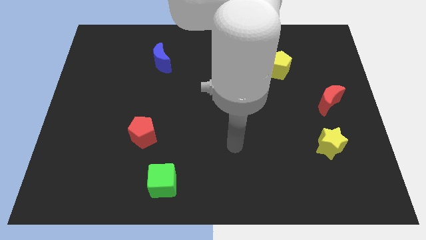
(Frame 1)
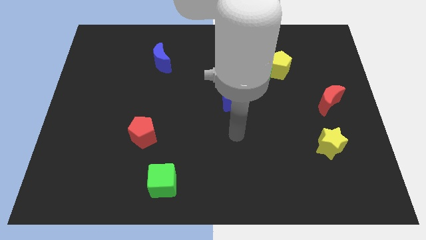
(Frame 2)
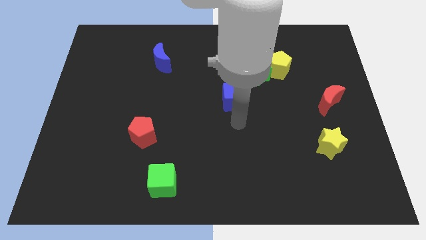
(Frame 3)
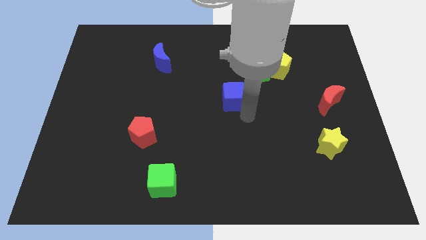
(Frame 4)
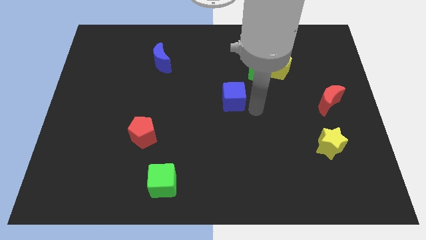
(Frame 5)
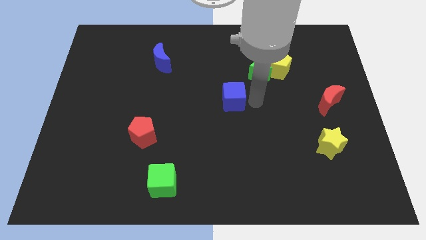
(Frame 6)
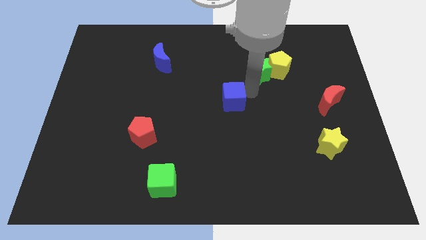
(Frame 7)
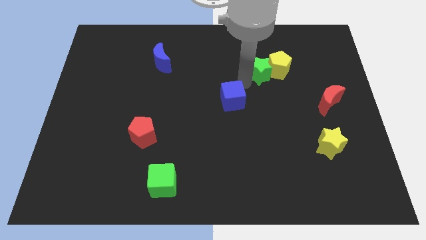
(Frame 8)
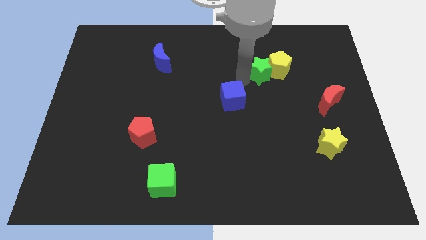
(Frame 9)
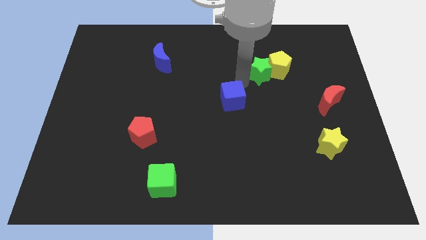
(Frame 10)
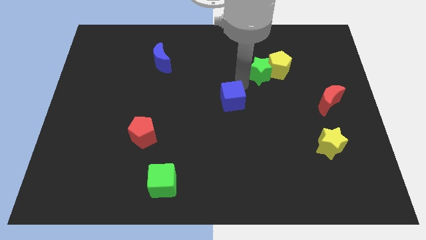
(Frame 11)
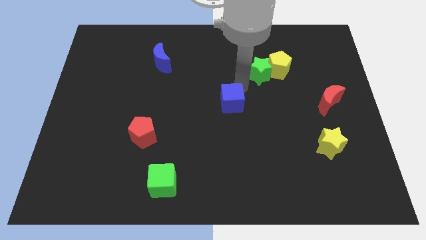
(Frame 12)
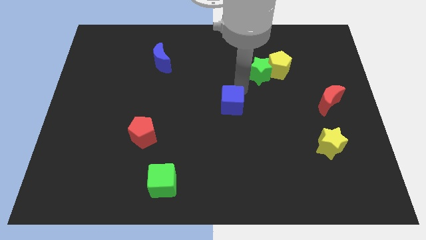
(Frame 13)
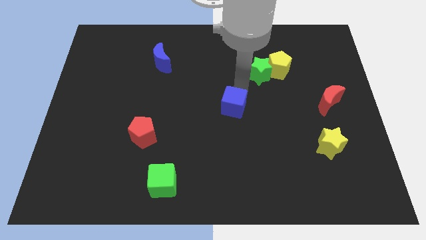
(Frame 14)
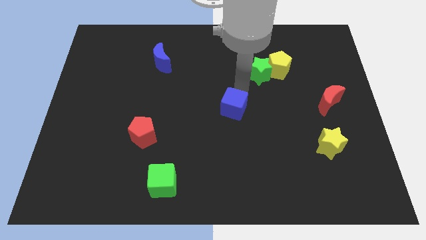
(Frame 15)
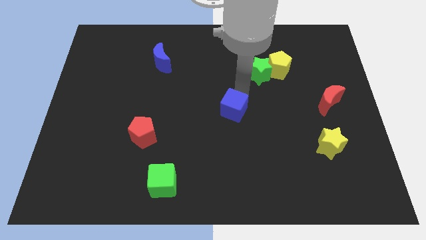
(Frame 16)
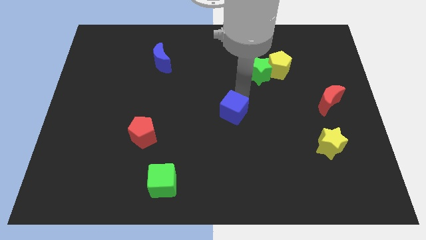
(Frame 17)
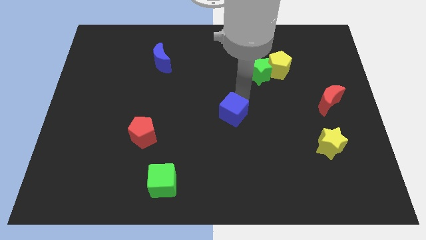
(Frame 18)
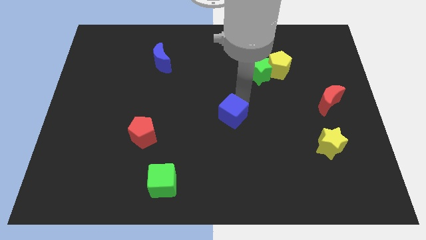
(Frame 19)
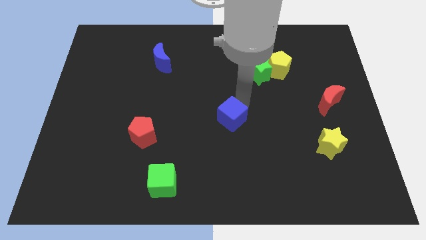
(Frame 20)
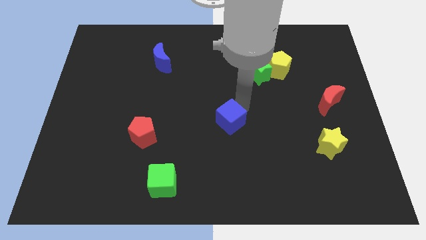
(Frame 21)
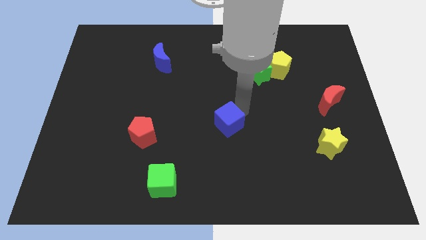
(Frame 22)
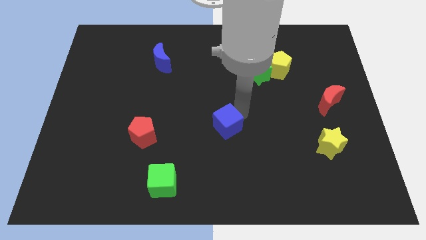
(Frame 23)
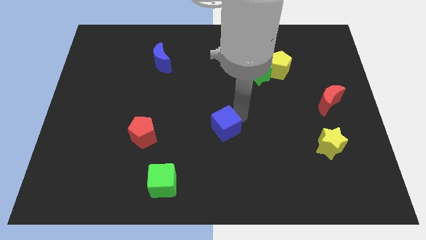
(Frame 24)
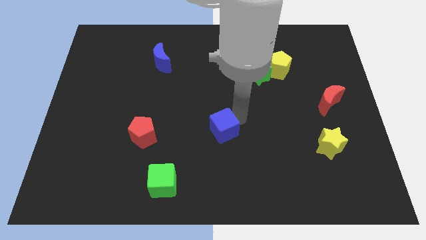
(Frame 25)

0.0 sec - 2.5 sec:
move the blue cube downwards and to the left a little bit

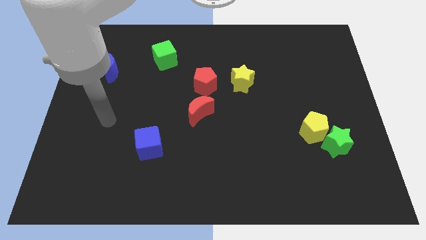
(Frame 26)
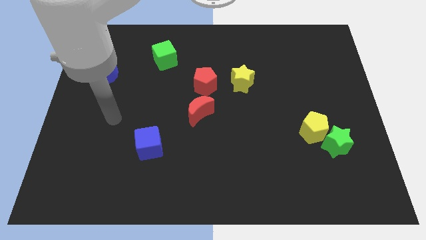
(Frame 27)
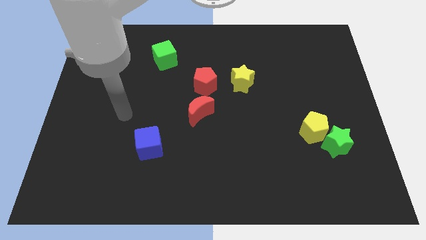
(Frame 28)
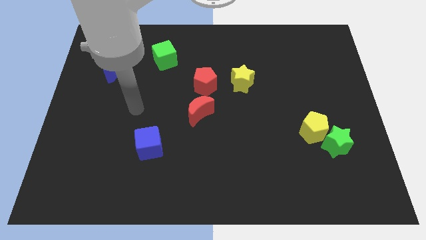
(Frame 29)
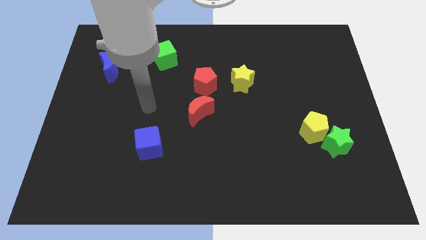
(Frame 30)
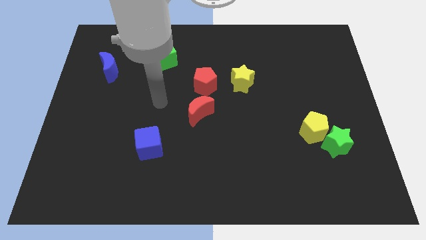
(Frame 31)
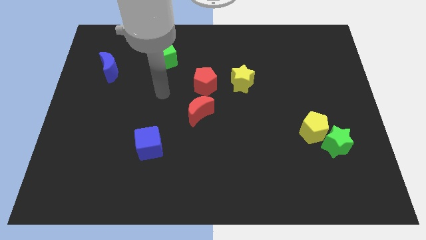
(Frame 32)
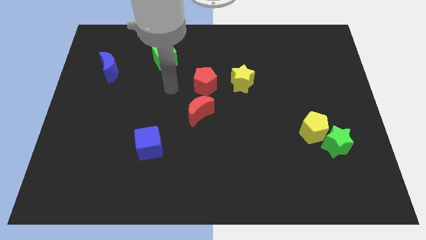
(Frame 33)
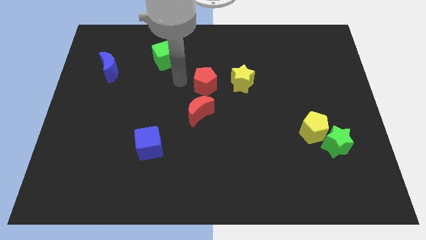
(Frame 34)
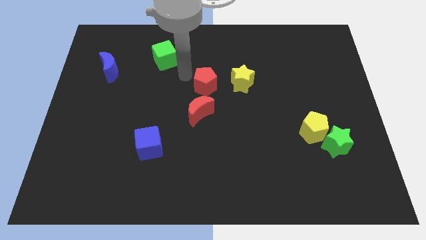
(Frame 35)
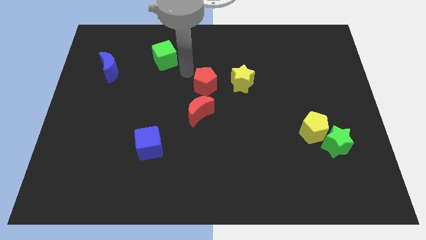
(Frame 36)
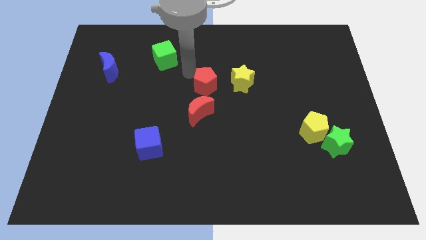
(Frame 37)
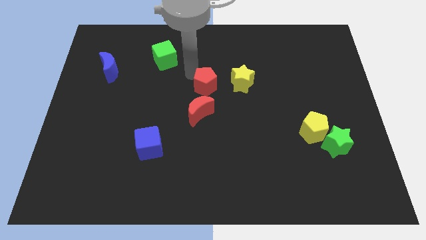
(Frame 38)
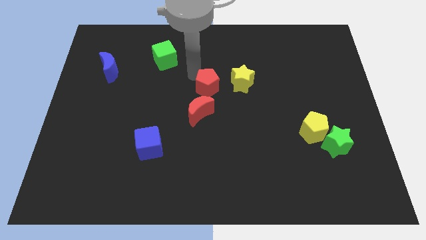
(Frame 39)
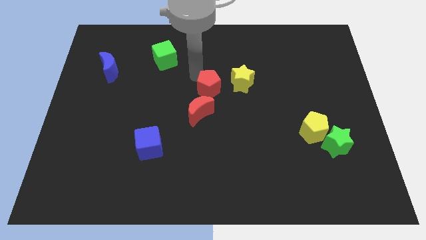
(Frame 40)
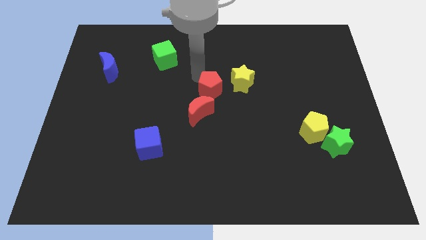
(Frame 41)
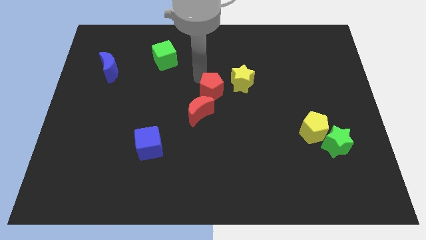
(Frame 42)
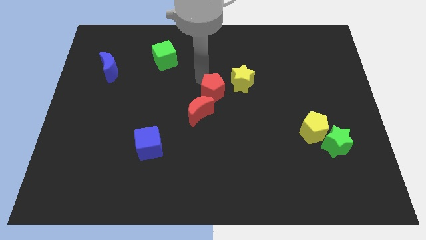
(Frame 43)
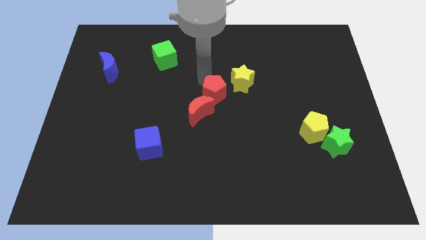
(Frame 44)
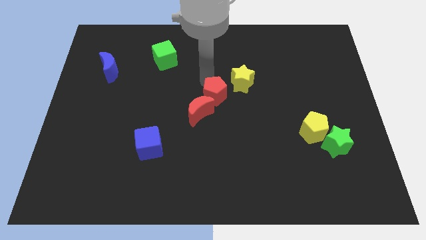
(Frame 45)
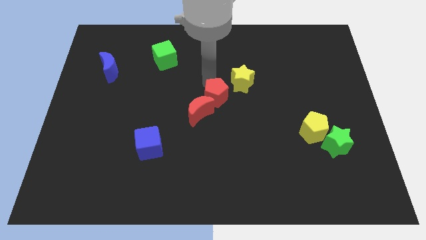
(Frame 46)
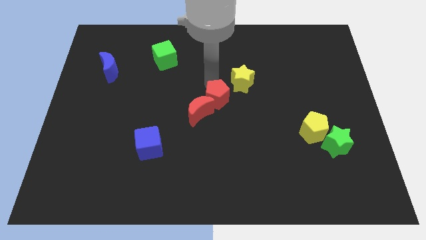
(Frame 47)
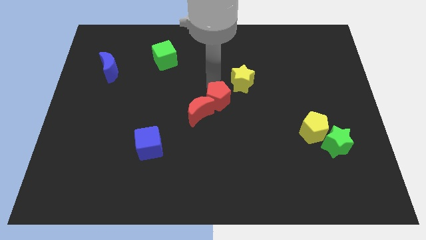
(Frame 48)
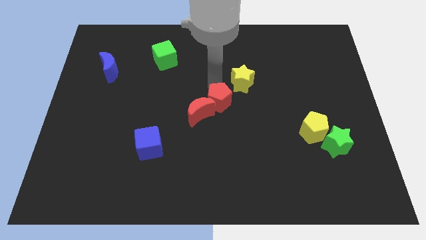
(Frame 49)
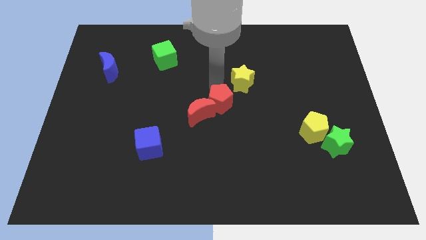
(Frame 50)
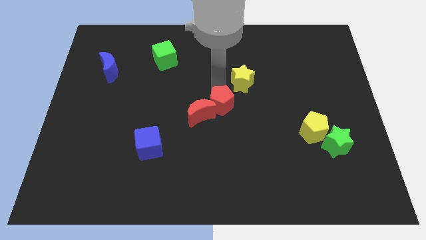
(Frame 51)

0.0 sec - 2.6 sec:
slide the red pentagon down and to the right a little bit

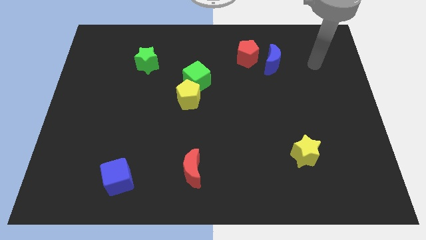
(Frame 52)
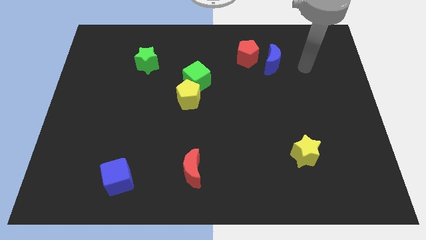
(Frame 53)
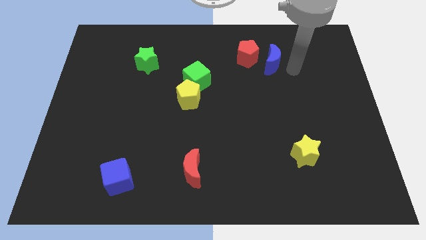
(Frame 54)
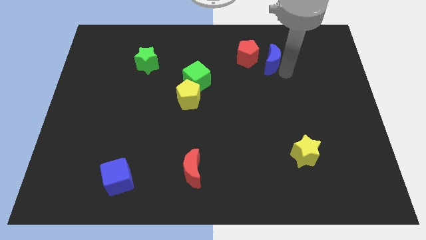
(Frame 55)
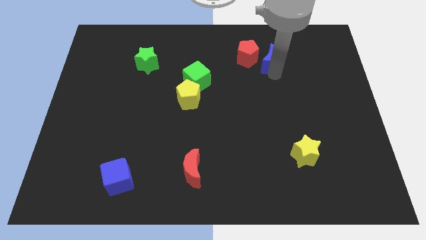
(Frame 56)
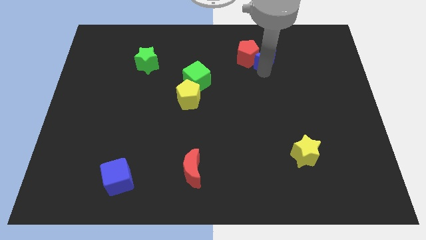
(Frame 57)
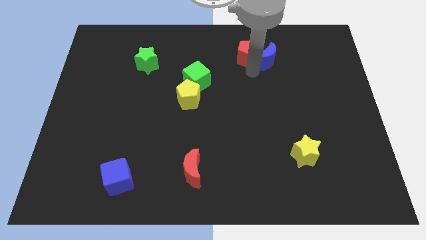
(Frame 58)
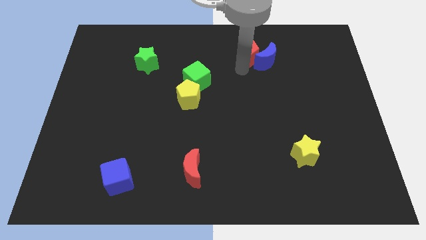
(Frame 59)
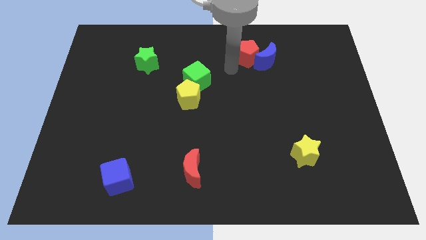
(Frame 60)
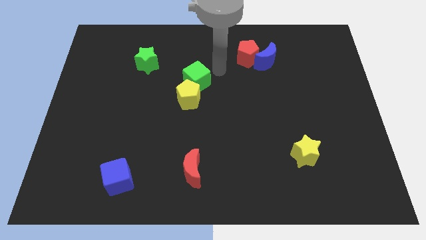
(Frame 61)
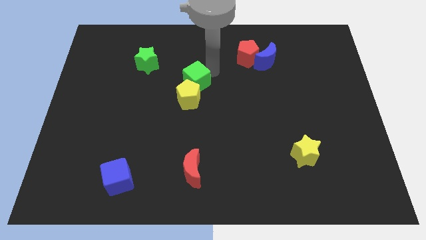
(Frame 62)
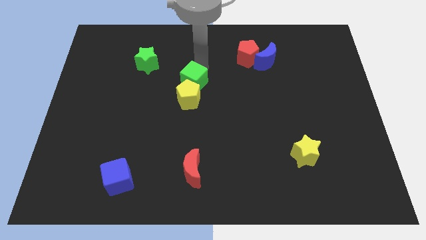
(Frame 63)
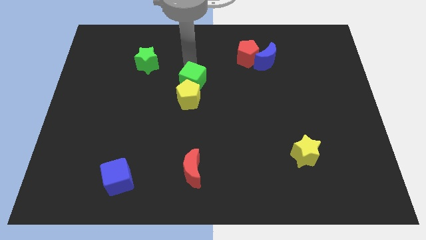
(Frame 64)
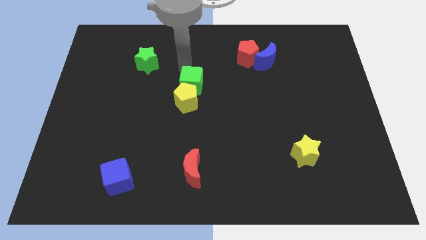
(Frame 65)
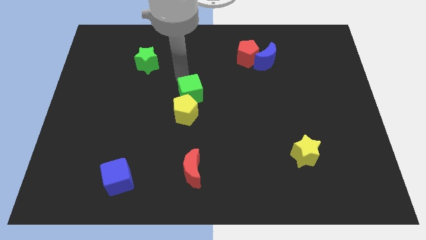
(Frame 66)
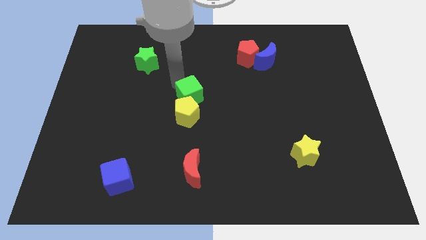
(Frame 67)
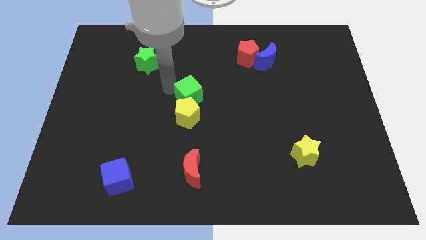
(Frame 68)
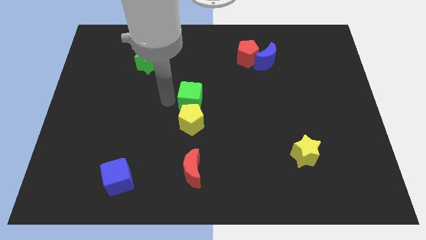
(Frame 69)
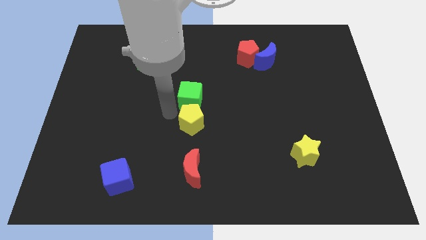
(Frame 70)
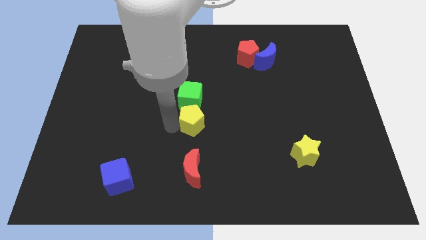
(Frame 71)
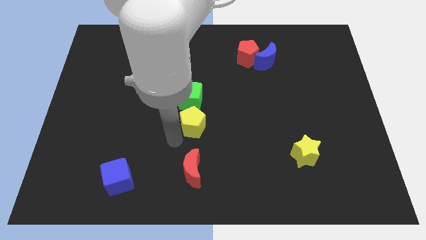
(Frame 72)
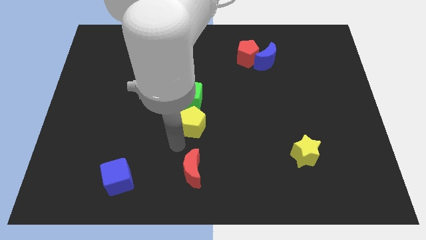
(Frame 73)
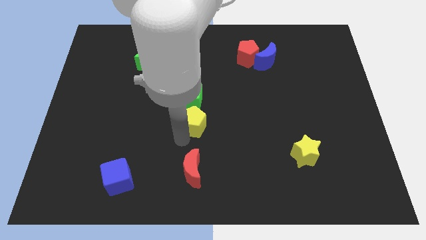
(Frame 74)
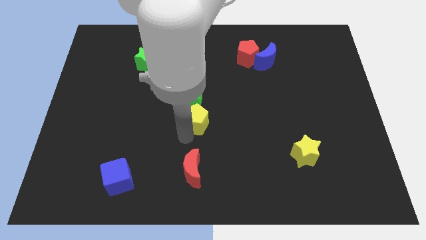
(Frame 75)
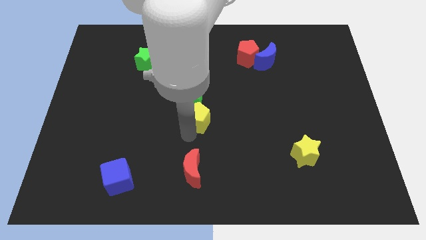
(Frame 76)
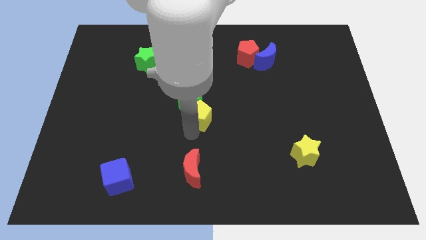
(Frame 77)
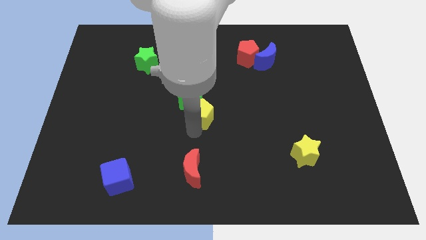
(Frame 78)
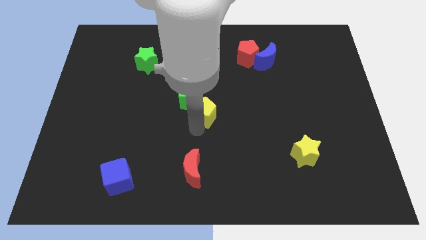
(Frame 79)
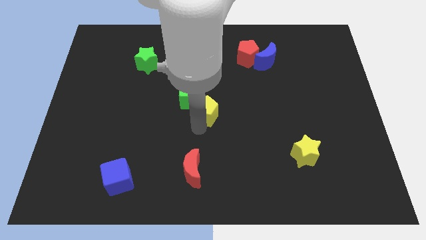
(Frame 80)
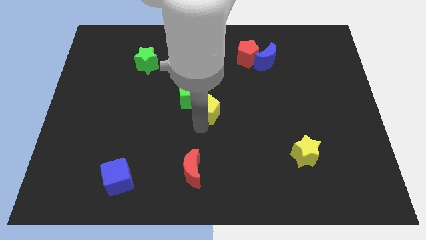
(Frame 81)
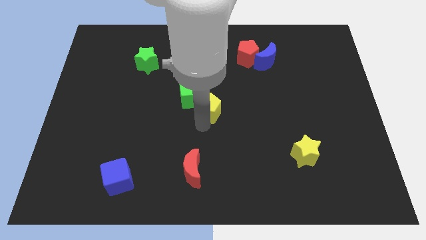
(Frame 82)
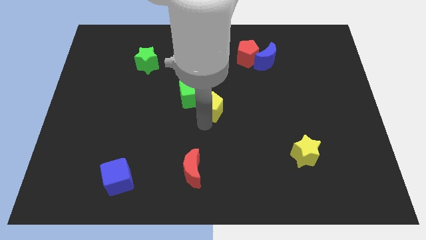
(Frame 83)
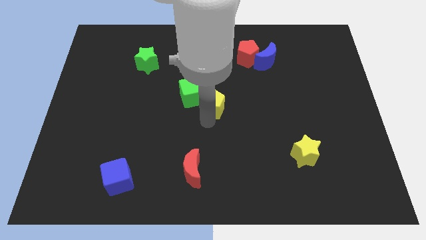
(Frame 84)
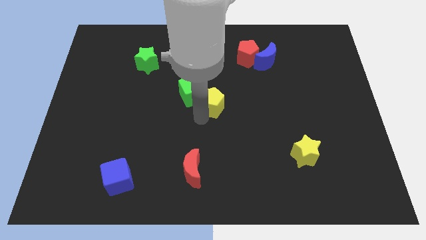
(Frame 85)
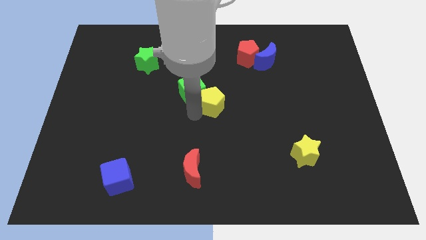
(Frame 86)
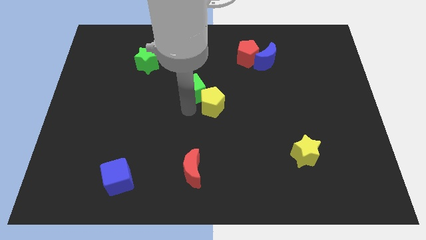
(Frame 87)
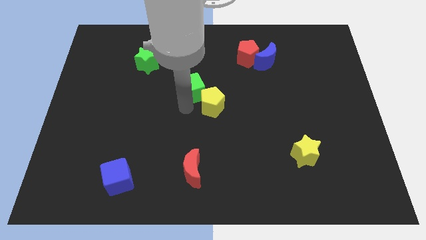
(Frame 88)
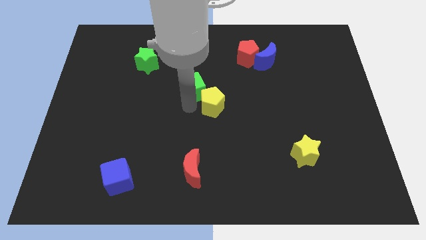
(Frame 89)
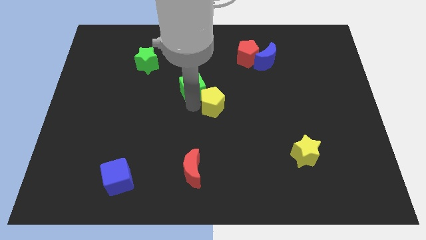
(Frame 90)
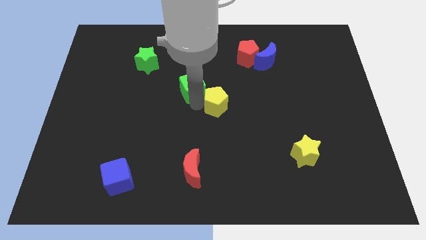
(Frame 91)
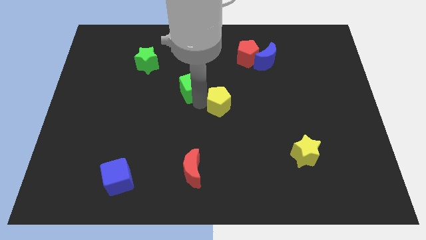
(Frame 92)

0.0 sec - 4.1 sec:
slide the yellow pentagon a little to the right
